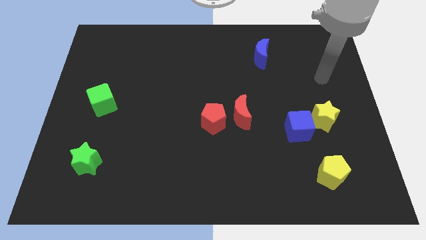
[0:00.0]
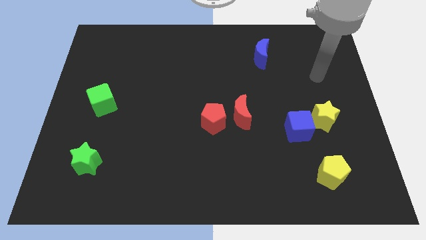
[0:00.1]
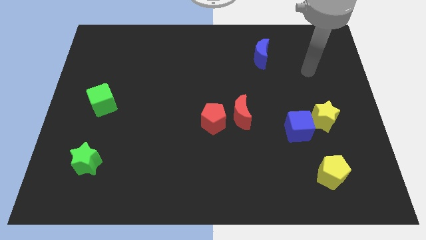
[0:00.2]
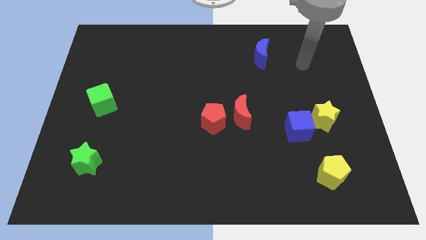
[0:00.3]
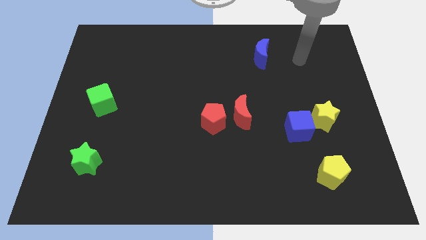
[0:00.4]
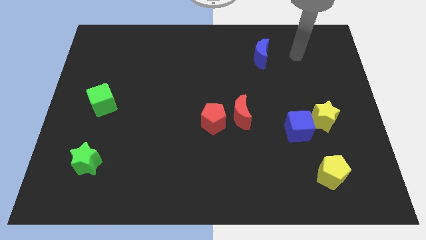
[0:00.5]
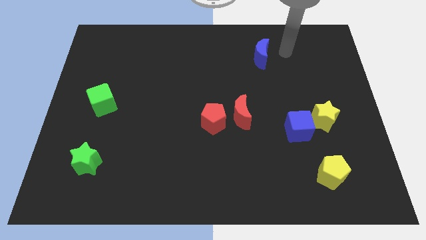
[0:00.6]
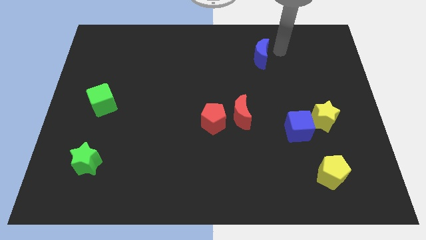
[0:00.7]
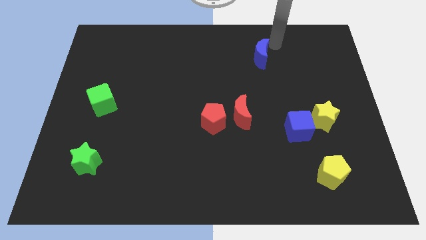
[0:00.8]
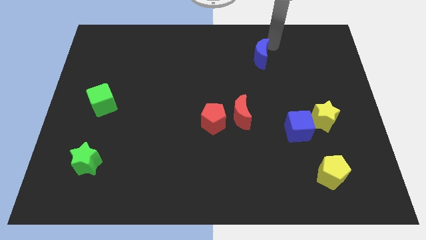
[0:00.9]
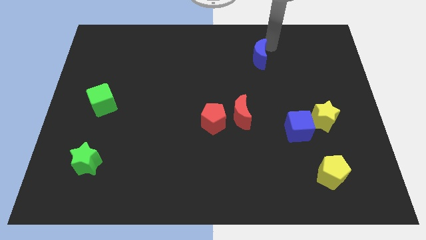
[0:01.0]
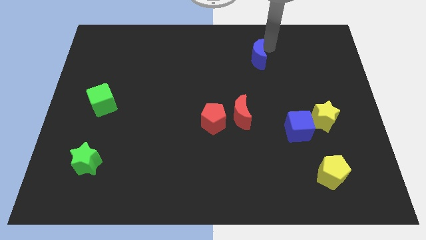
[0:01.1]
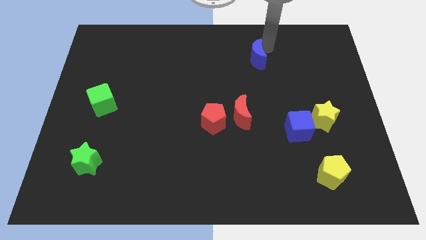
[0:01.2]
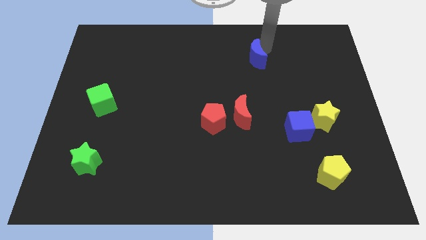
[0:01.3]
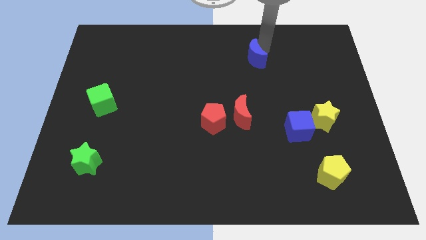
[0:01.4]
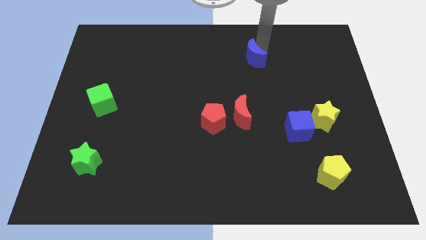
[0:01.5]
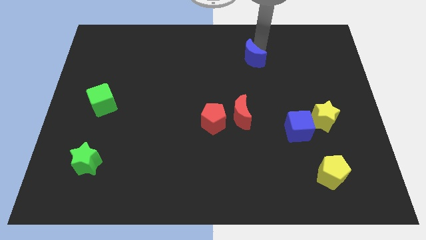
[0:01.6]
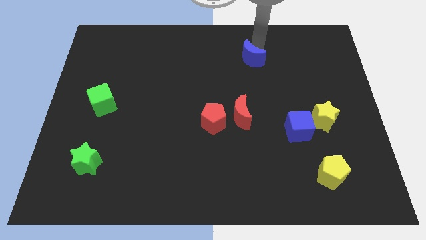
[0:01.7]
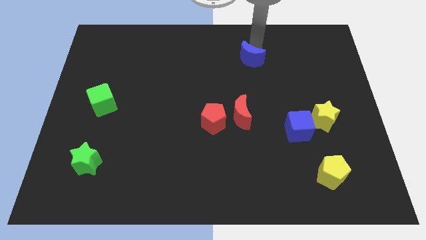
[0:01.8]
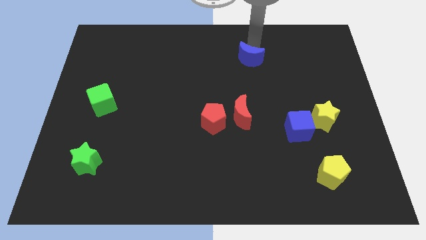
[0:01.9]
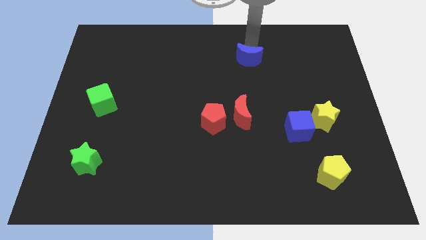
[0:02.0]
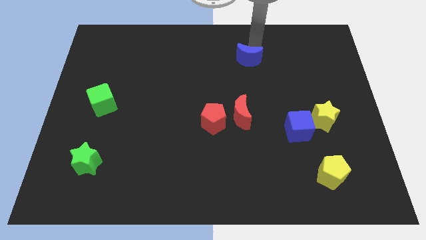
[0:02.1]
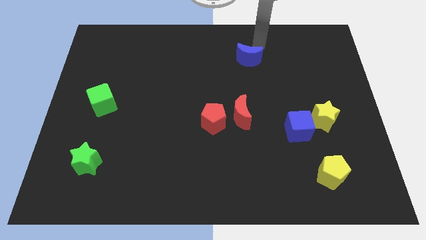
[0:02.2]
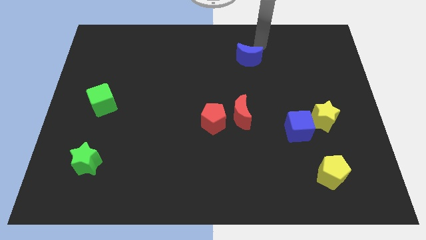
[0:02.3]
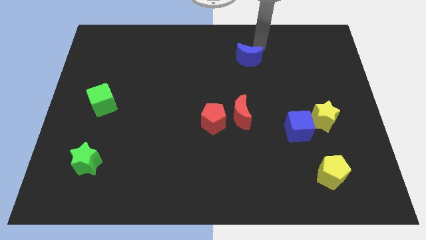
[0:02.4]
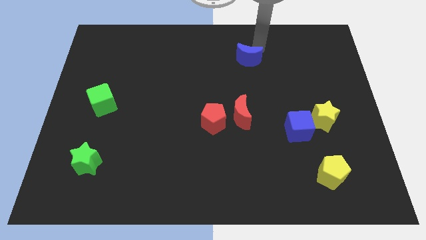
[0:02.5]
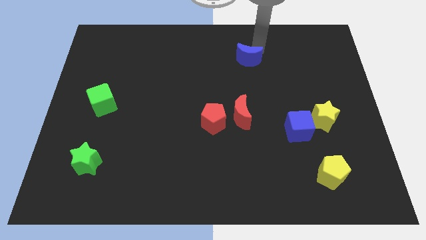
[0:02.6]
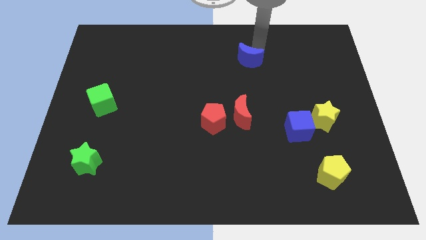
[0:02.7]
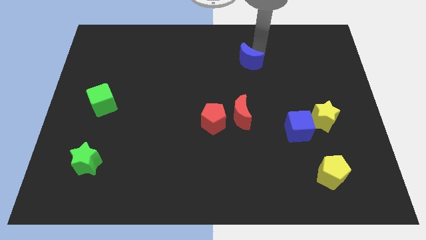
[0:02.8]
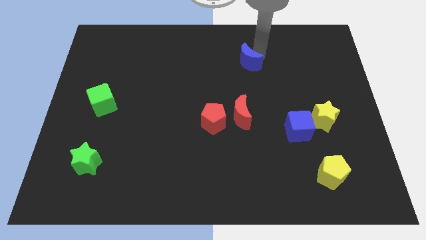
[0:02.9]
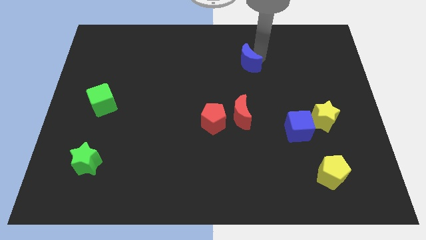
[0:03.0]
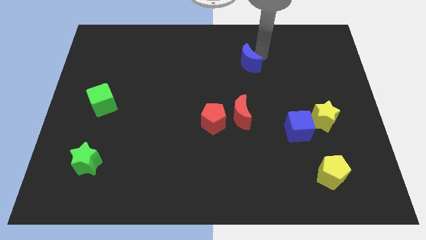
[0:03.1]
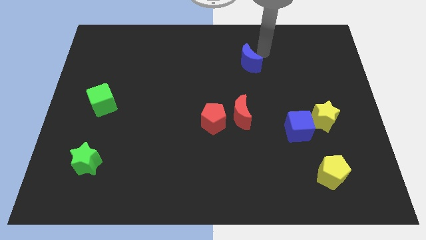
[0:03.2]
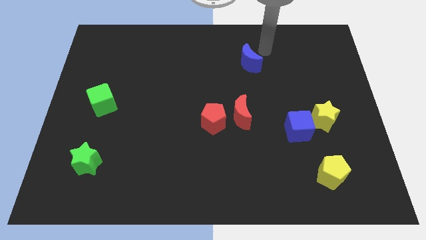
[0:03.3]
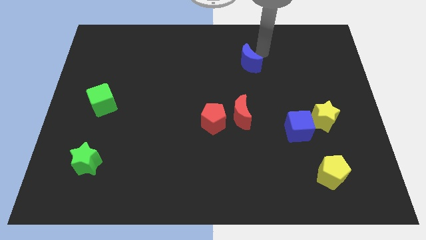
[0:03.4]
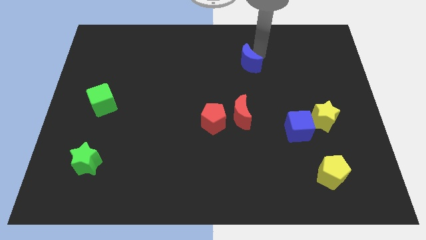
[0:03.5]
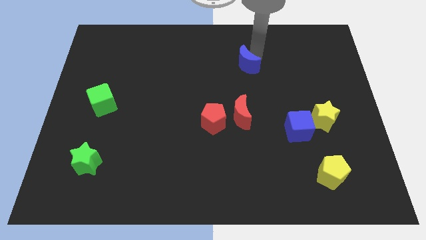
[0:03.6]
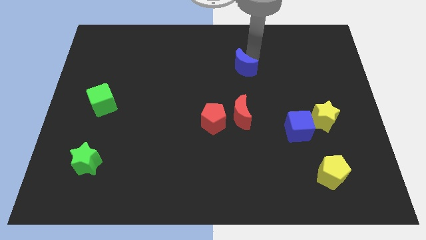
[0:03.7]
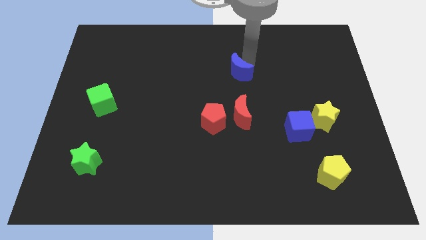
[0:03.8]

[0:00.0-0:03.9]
slightly slide the blue moon diagonally downwards and left

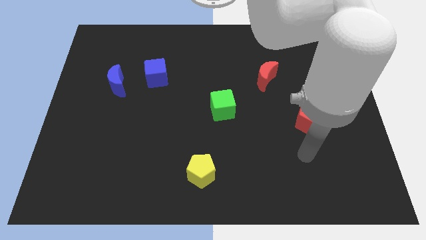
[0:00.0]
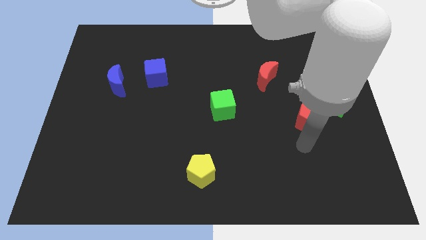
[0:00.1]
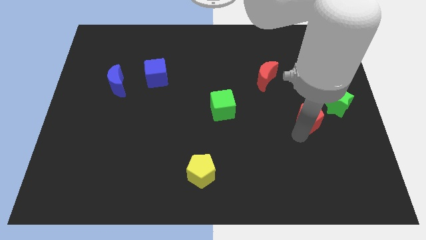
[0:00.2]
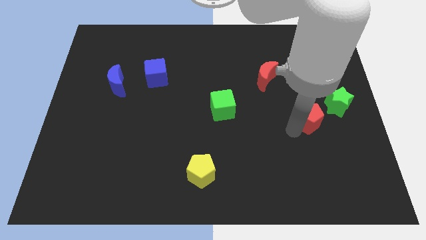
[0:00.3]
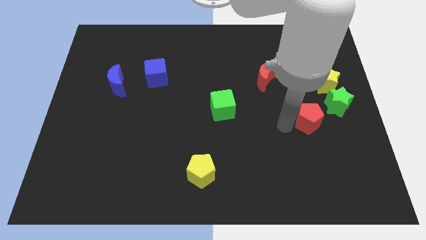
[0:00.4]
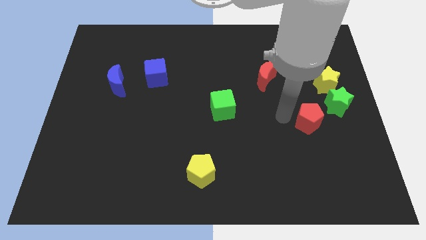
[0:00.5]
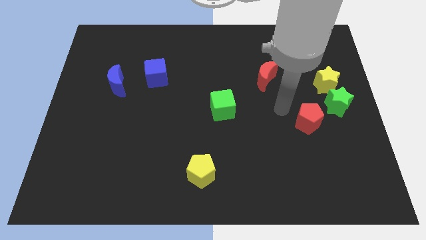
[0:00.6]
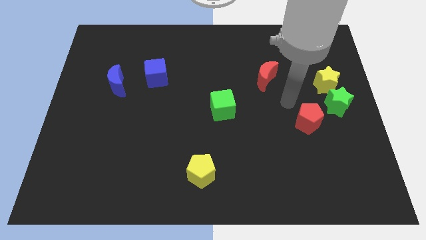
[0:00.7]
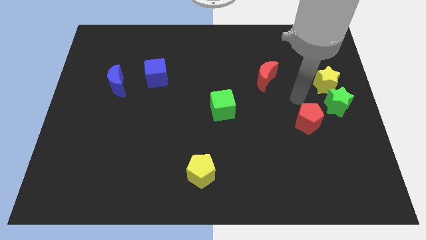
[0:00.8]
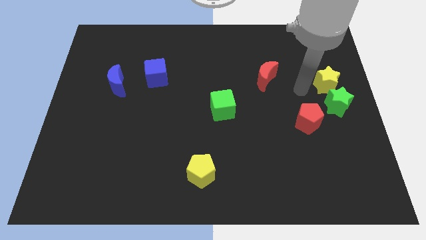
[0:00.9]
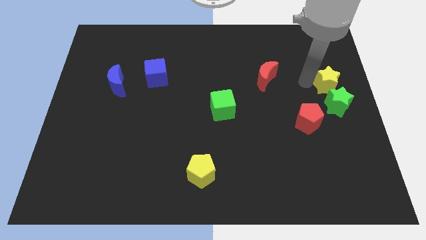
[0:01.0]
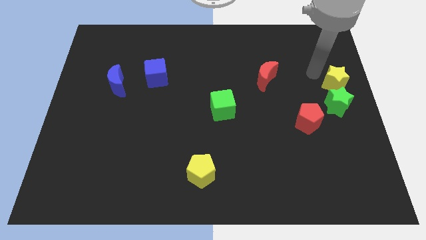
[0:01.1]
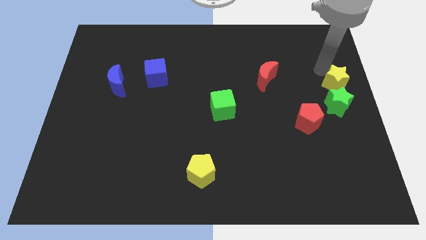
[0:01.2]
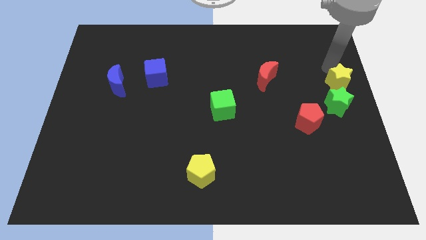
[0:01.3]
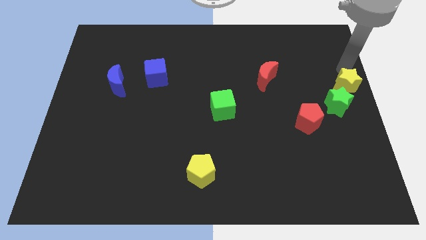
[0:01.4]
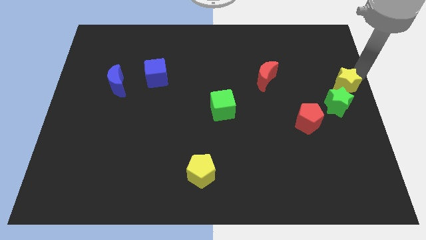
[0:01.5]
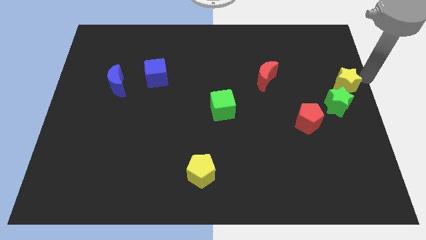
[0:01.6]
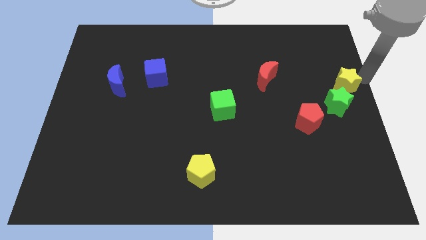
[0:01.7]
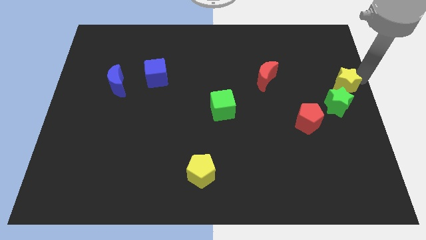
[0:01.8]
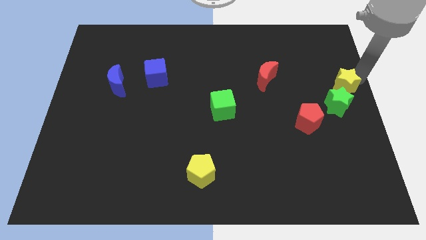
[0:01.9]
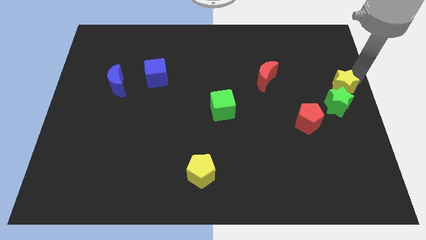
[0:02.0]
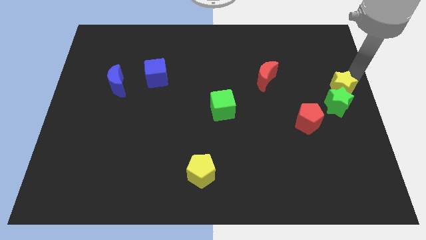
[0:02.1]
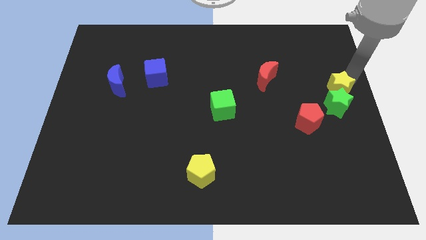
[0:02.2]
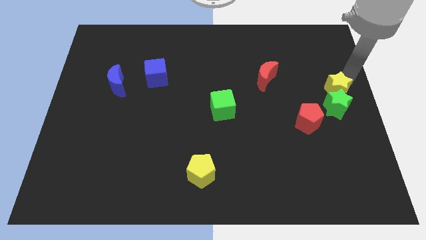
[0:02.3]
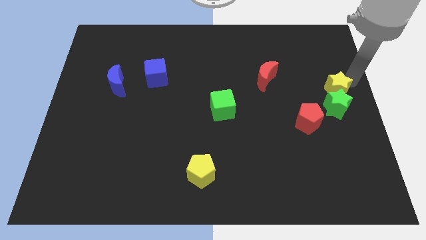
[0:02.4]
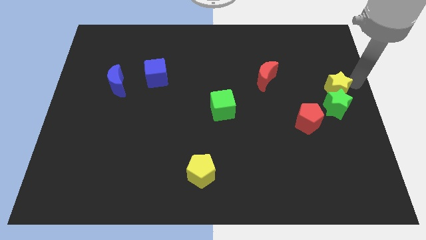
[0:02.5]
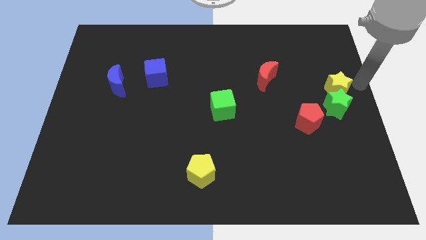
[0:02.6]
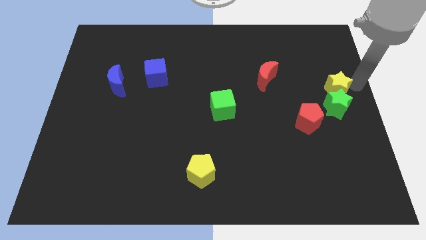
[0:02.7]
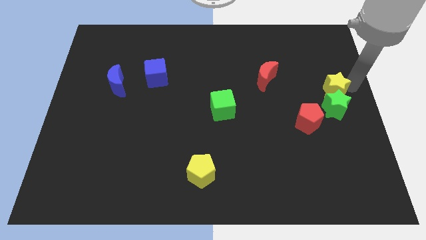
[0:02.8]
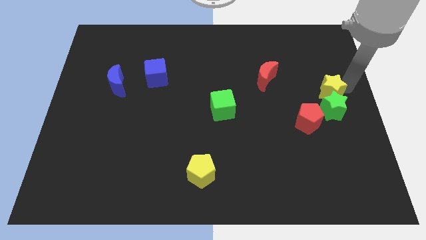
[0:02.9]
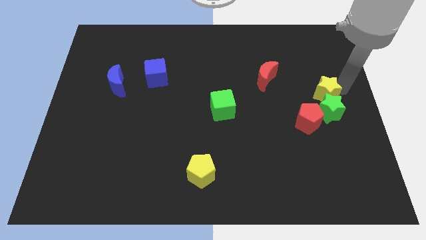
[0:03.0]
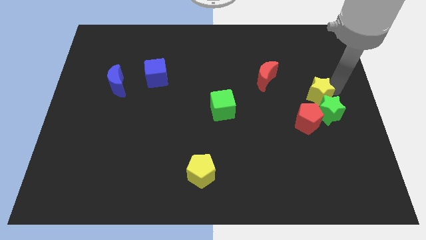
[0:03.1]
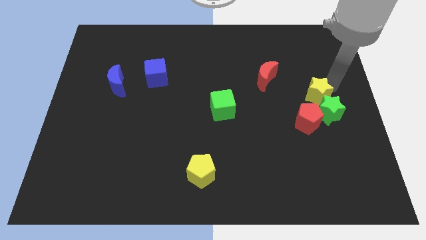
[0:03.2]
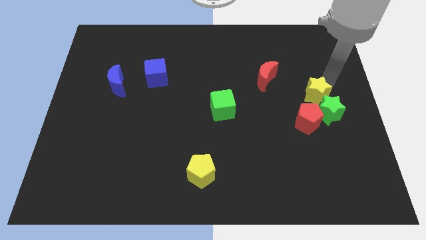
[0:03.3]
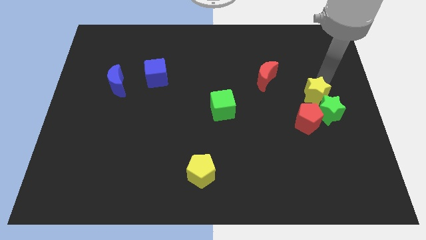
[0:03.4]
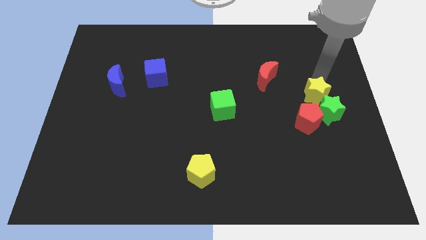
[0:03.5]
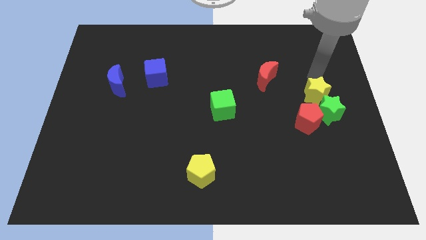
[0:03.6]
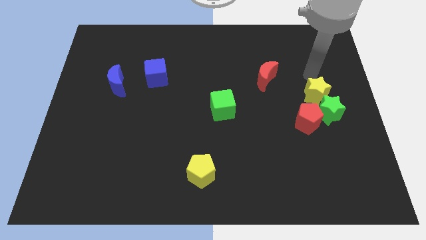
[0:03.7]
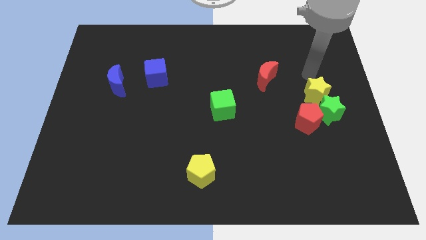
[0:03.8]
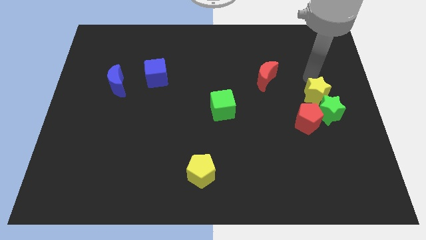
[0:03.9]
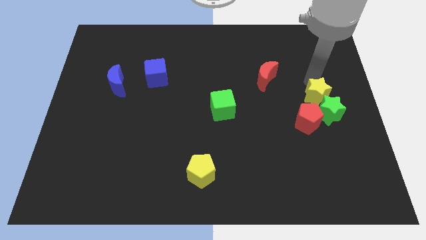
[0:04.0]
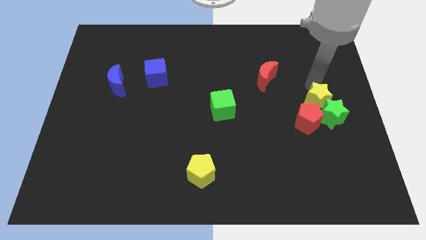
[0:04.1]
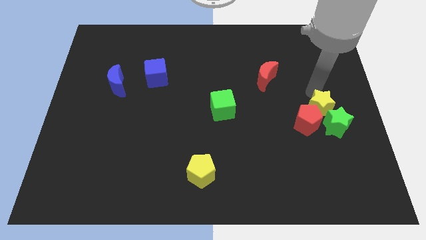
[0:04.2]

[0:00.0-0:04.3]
push the yellow star down a little bit

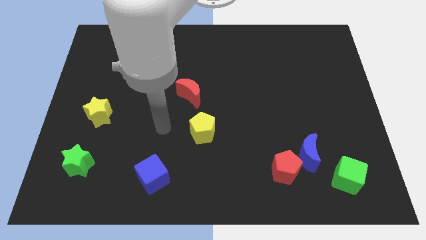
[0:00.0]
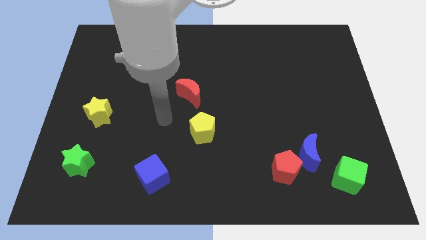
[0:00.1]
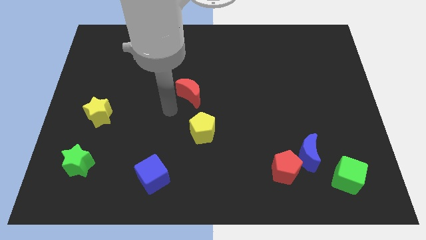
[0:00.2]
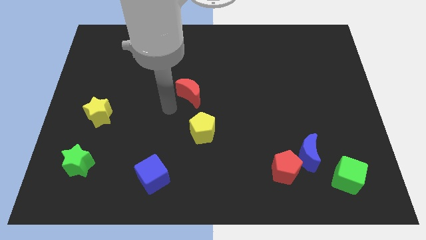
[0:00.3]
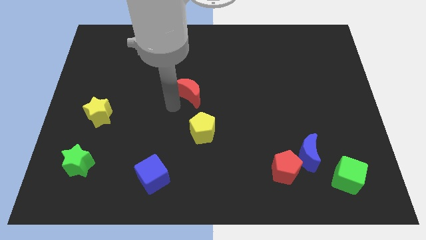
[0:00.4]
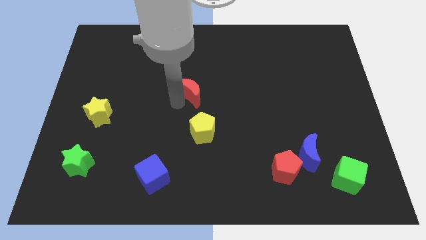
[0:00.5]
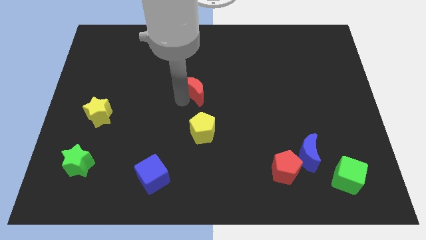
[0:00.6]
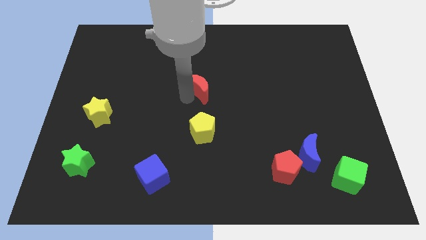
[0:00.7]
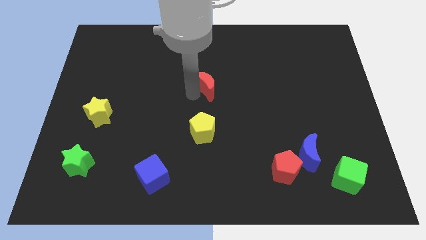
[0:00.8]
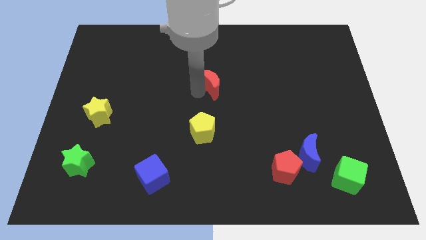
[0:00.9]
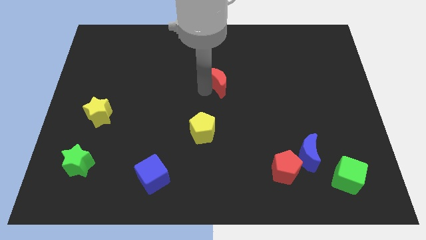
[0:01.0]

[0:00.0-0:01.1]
push the red moon a bit upwards and to the right
